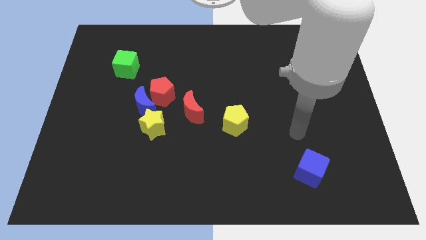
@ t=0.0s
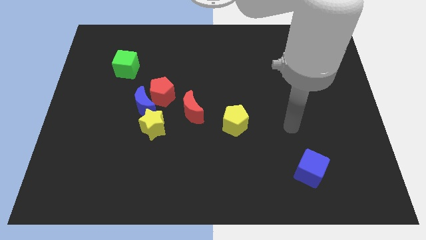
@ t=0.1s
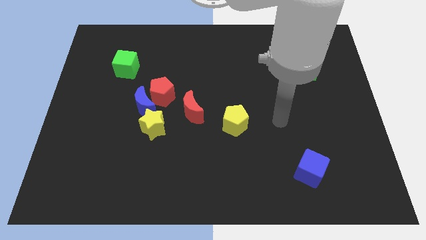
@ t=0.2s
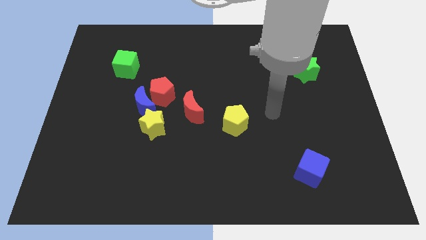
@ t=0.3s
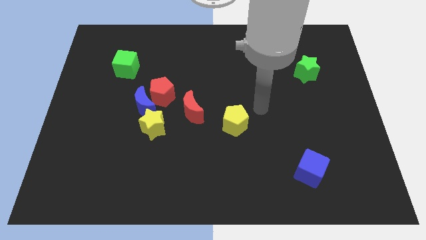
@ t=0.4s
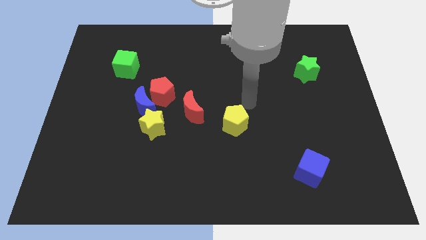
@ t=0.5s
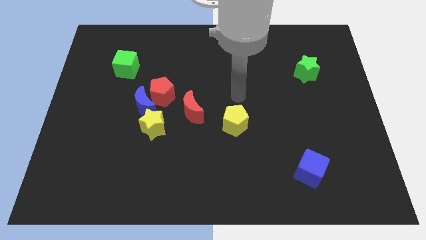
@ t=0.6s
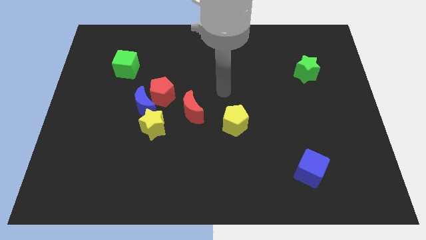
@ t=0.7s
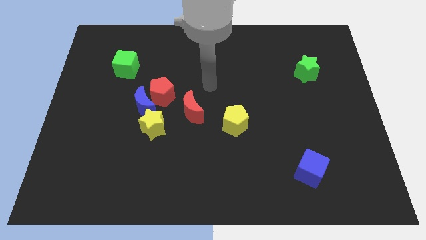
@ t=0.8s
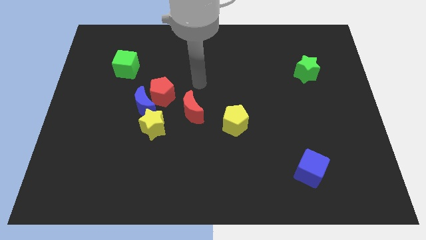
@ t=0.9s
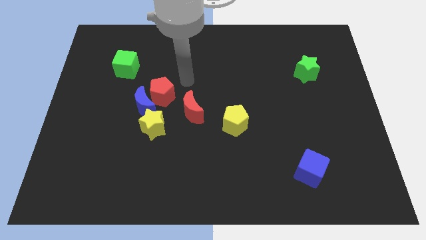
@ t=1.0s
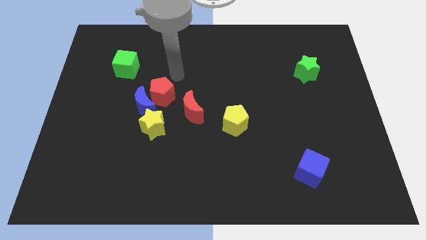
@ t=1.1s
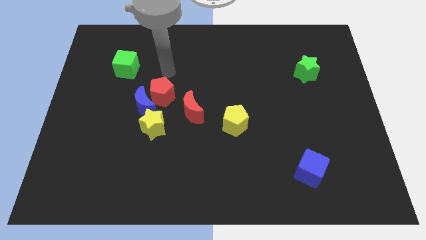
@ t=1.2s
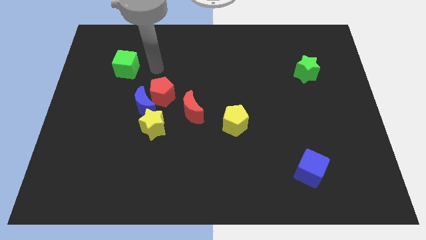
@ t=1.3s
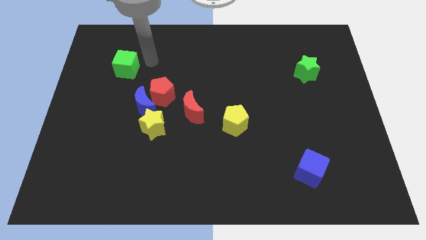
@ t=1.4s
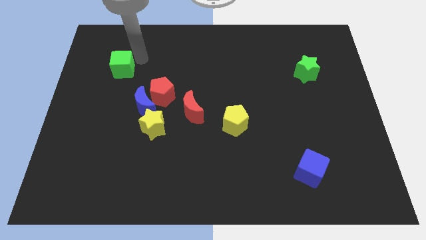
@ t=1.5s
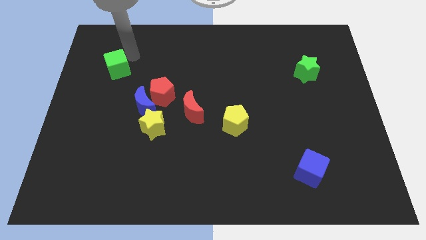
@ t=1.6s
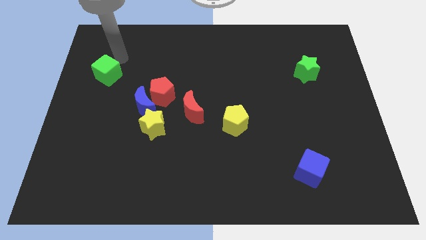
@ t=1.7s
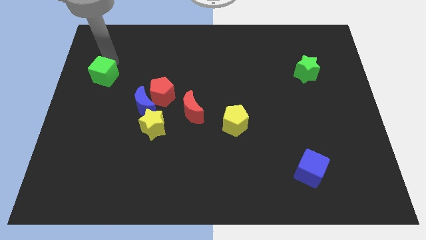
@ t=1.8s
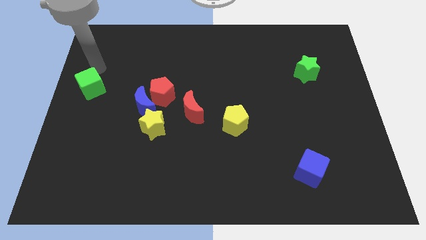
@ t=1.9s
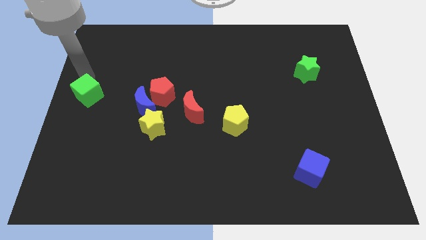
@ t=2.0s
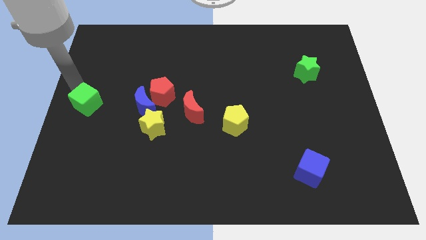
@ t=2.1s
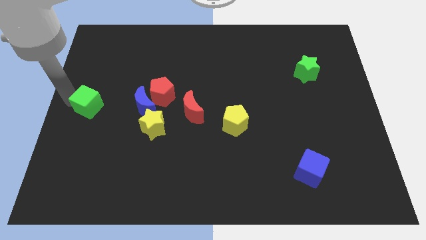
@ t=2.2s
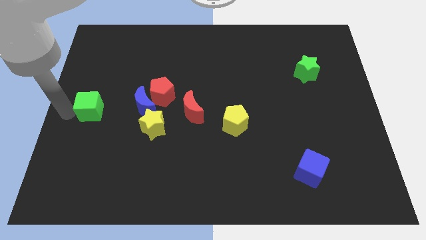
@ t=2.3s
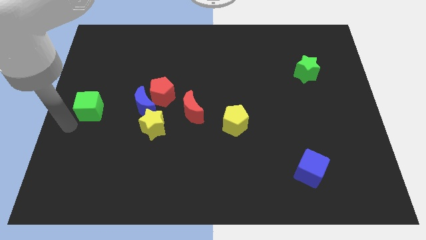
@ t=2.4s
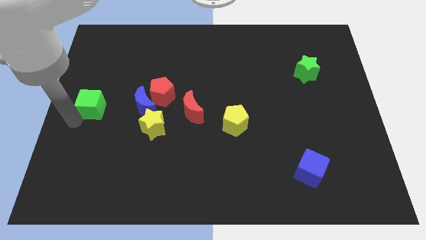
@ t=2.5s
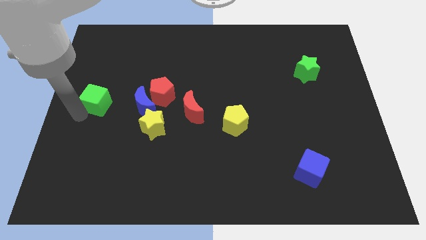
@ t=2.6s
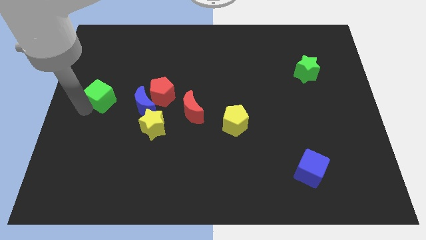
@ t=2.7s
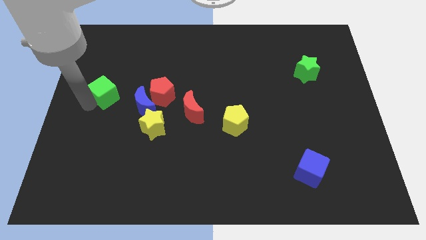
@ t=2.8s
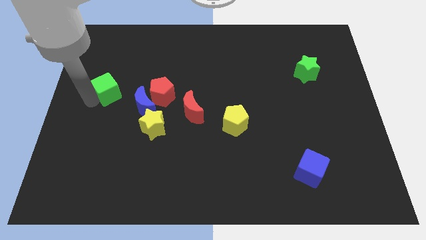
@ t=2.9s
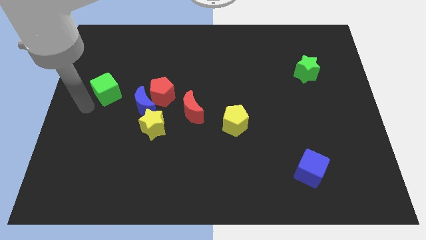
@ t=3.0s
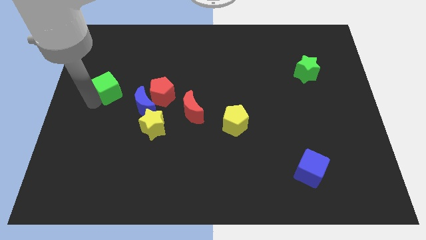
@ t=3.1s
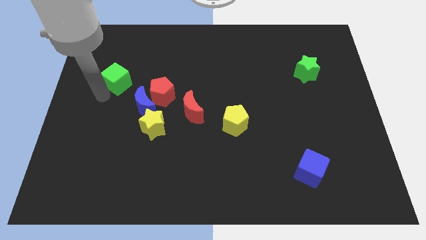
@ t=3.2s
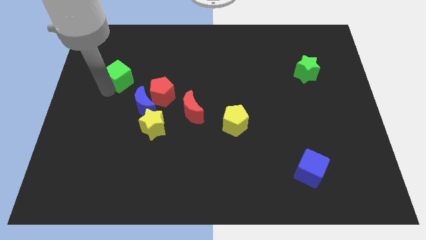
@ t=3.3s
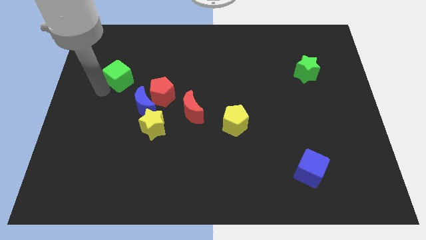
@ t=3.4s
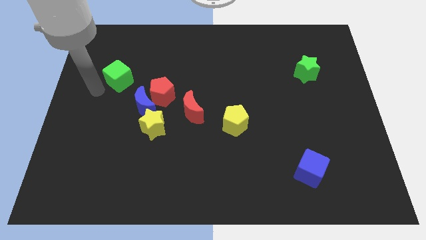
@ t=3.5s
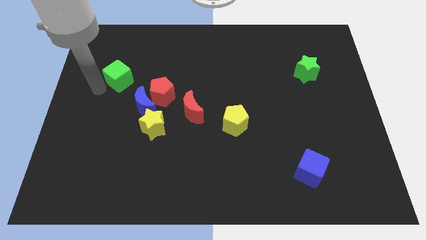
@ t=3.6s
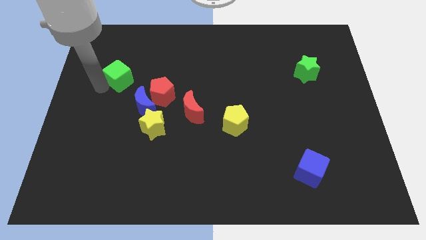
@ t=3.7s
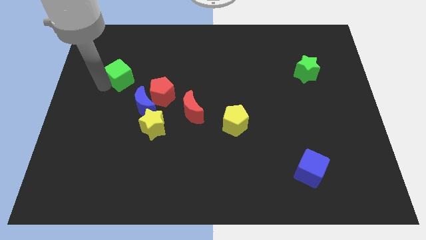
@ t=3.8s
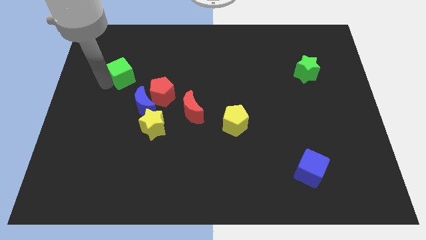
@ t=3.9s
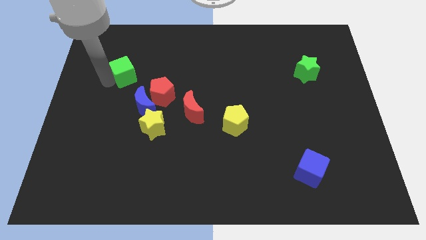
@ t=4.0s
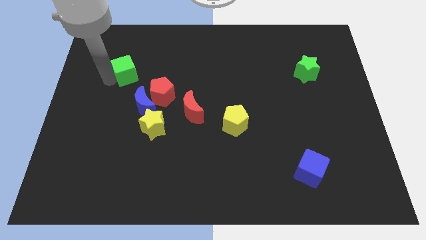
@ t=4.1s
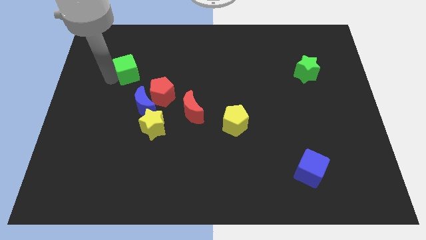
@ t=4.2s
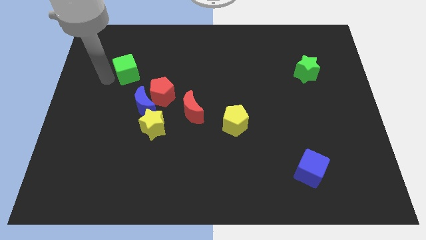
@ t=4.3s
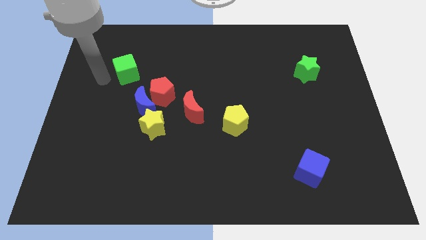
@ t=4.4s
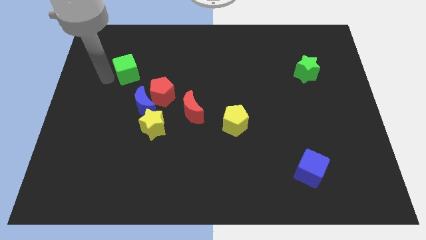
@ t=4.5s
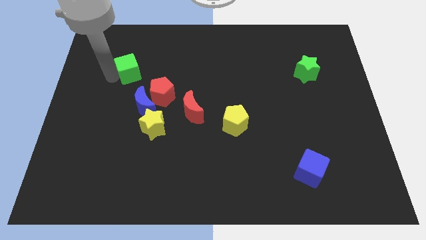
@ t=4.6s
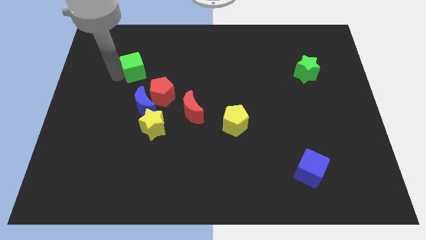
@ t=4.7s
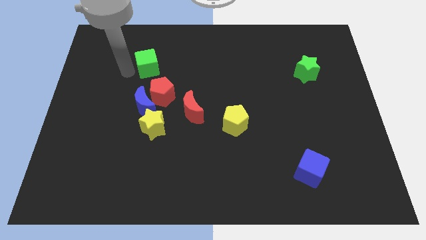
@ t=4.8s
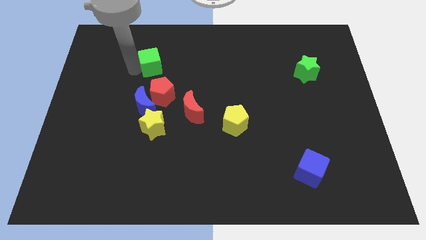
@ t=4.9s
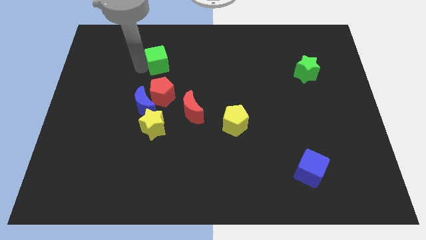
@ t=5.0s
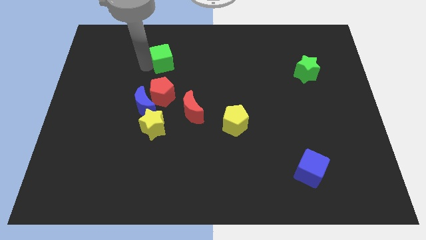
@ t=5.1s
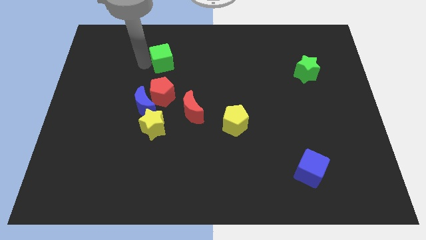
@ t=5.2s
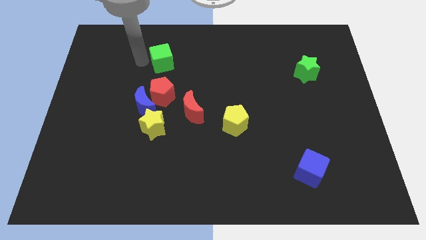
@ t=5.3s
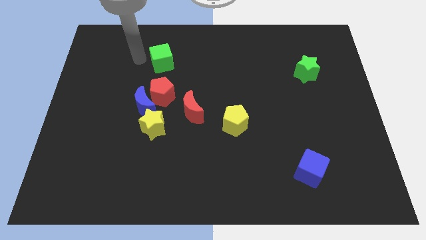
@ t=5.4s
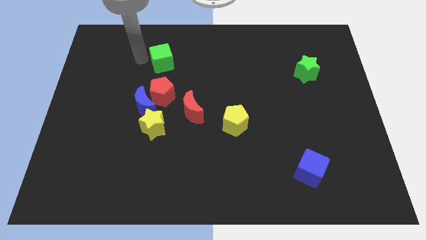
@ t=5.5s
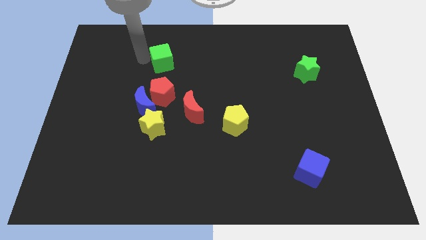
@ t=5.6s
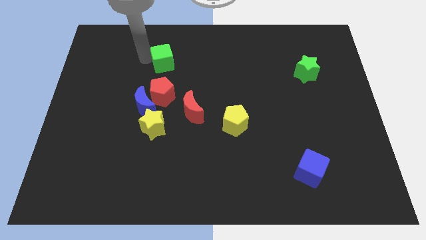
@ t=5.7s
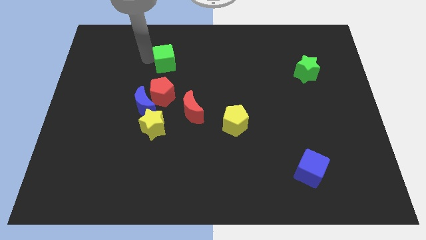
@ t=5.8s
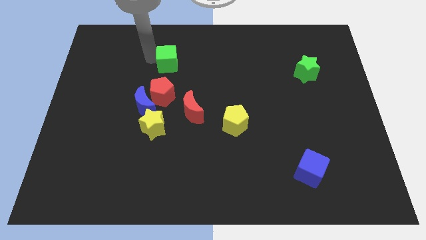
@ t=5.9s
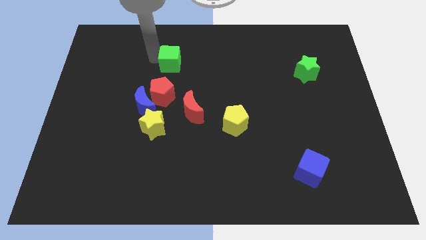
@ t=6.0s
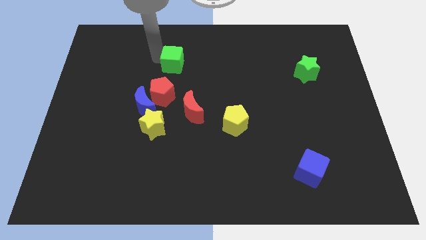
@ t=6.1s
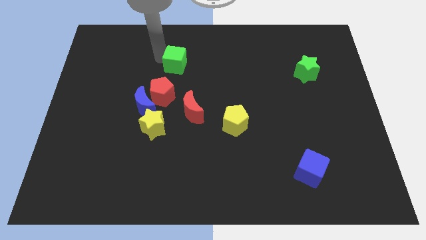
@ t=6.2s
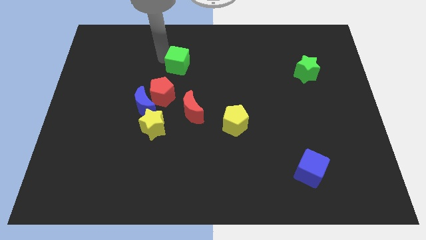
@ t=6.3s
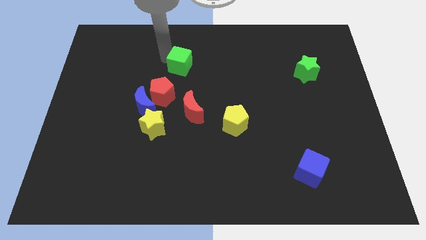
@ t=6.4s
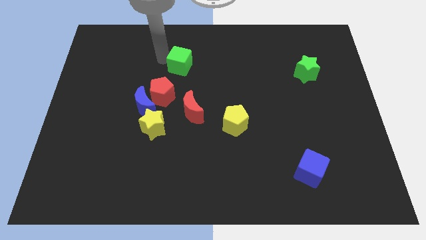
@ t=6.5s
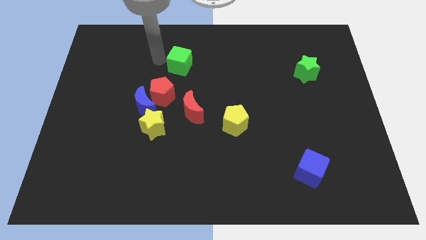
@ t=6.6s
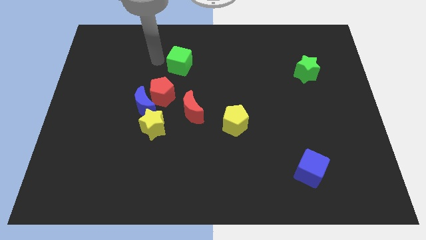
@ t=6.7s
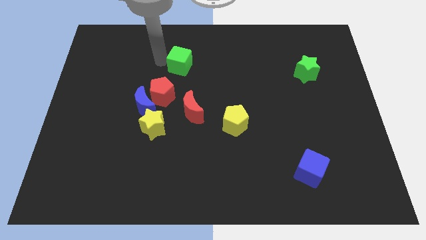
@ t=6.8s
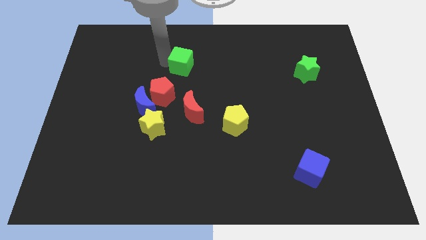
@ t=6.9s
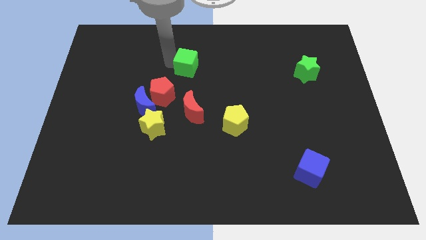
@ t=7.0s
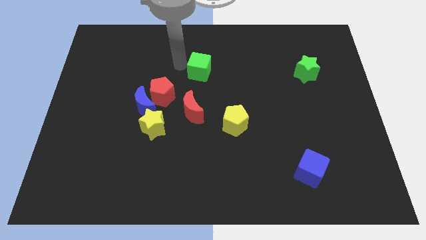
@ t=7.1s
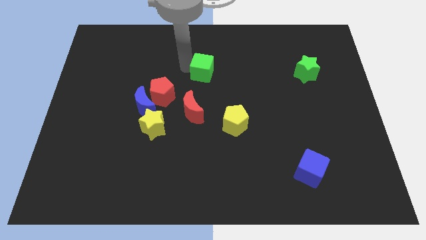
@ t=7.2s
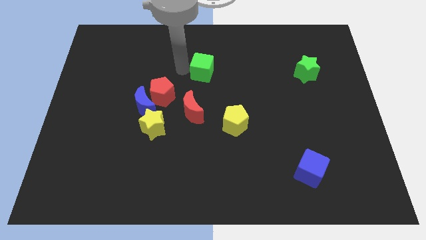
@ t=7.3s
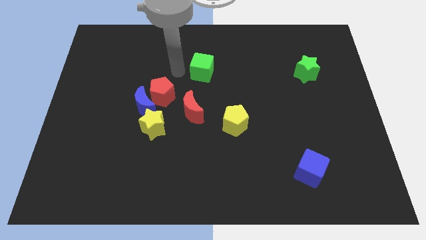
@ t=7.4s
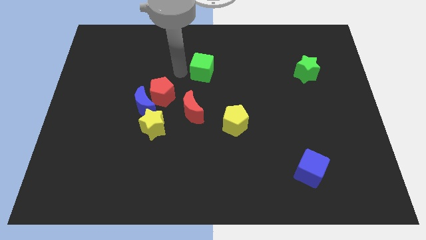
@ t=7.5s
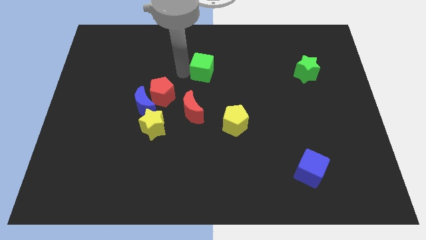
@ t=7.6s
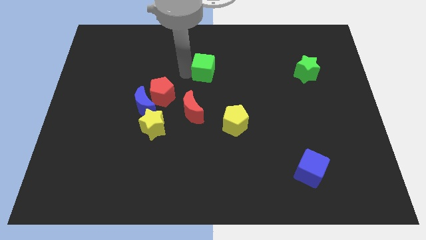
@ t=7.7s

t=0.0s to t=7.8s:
move the green cube to the right

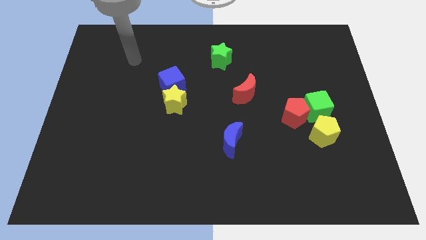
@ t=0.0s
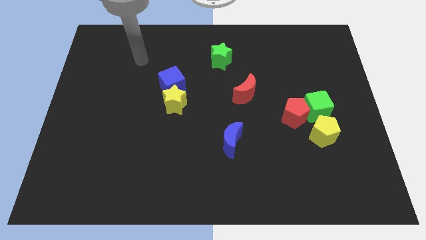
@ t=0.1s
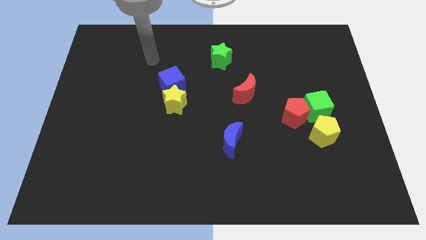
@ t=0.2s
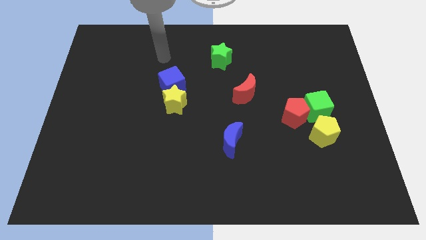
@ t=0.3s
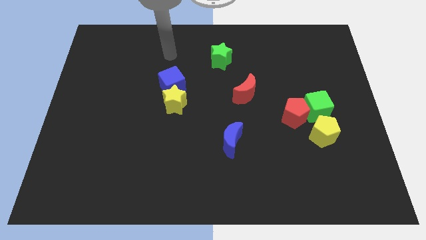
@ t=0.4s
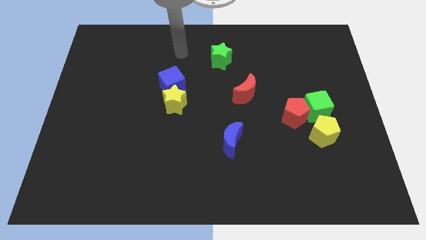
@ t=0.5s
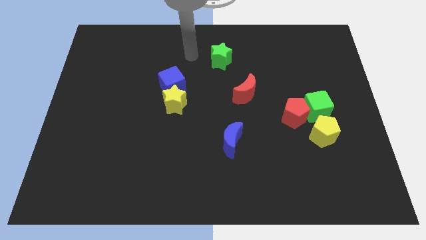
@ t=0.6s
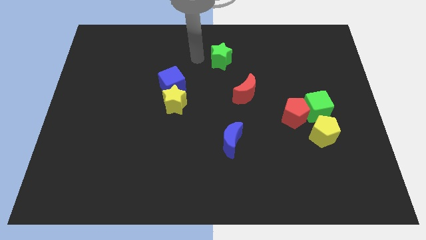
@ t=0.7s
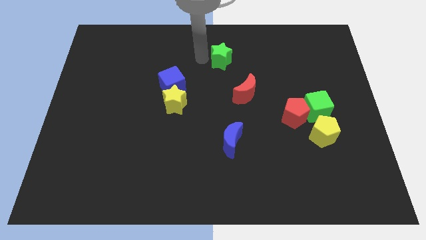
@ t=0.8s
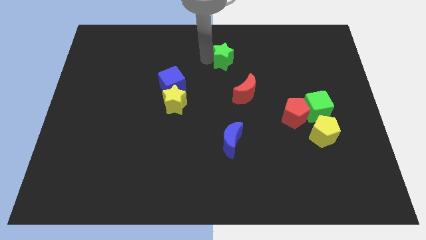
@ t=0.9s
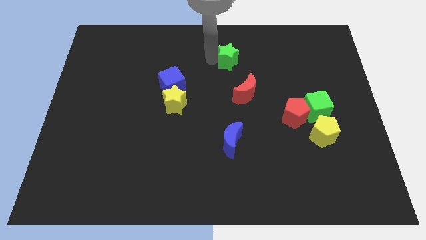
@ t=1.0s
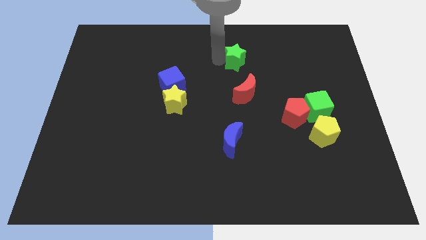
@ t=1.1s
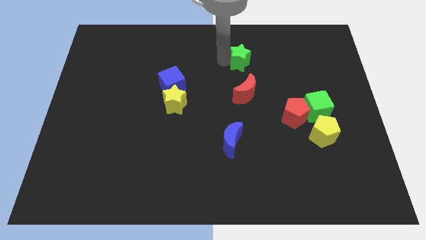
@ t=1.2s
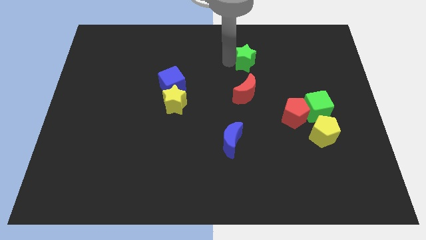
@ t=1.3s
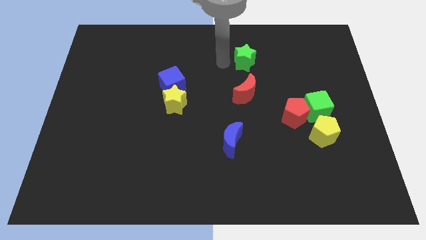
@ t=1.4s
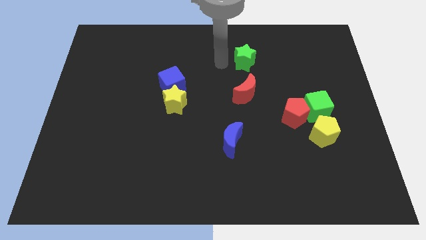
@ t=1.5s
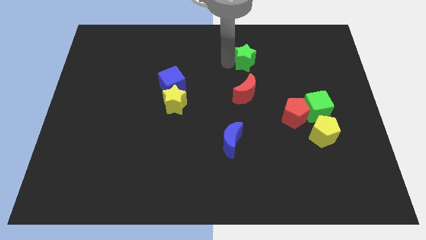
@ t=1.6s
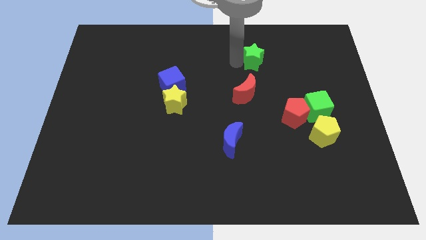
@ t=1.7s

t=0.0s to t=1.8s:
slide the green star to the right a little bit
